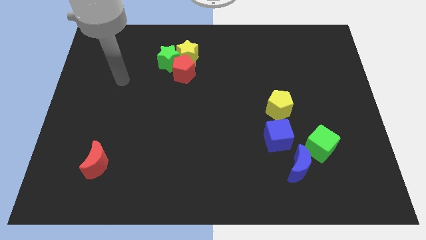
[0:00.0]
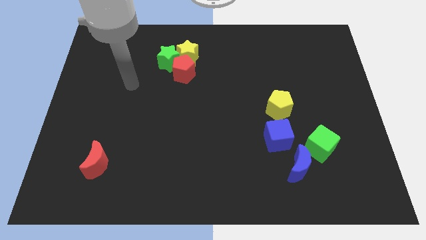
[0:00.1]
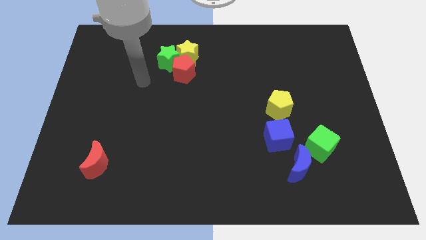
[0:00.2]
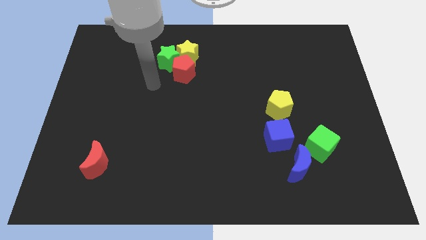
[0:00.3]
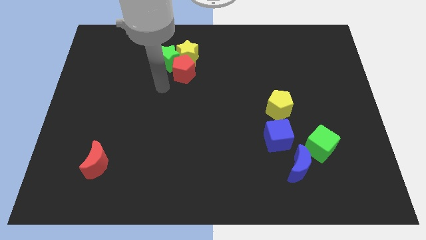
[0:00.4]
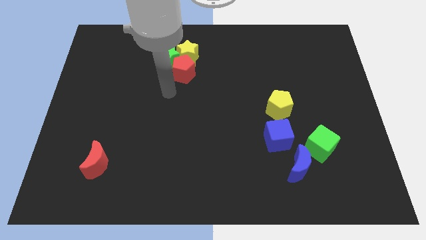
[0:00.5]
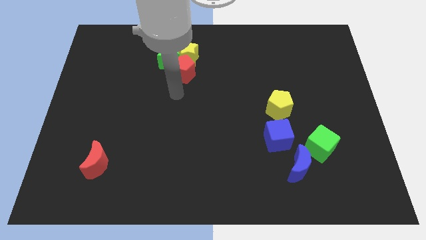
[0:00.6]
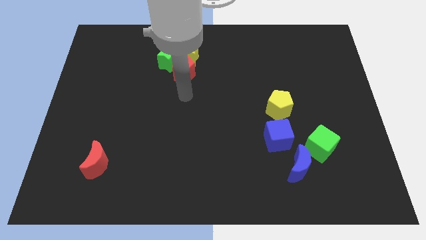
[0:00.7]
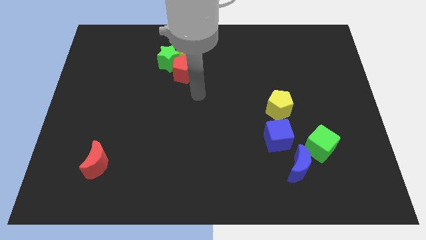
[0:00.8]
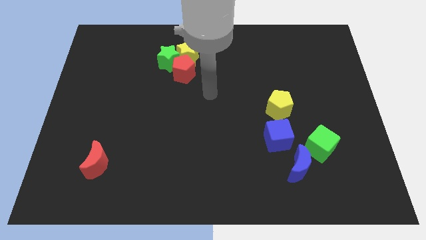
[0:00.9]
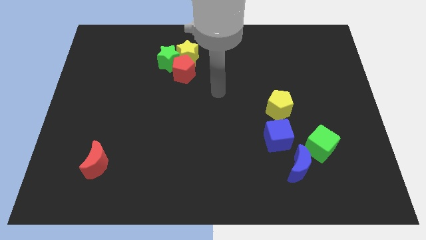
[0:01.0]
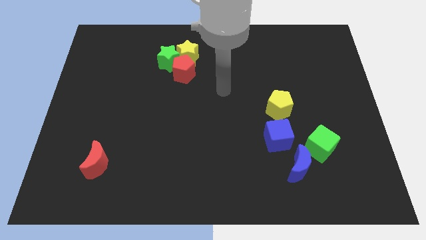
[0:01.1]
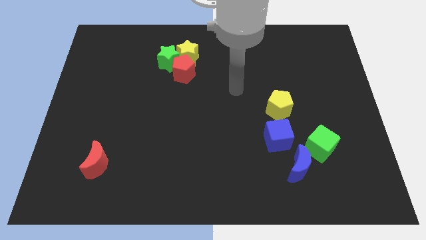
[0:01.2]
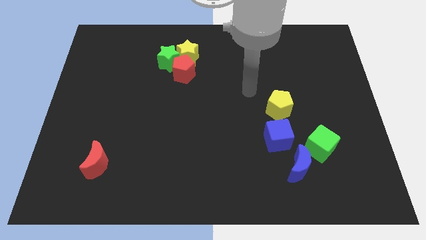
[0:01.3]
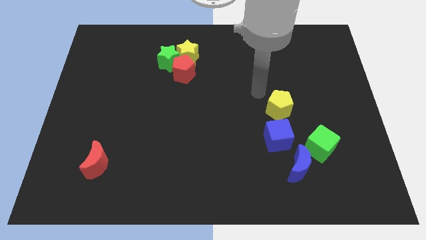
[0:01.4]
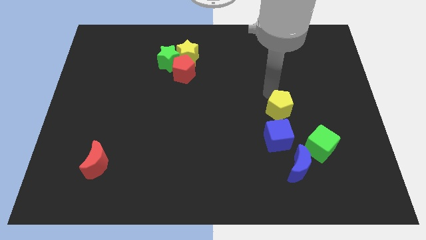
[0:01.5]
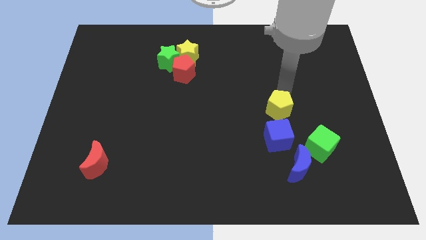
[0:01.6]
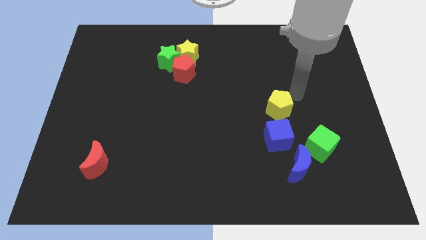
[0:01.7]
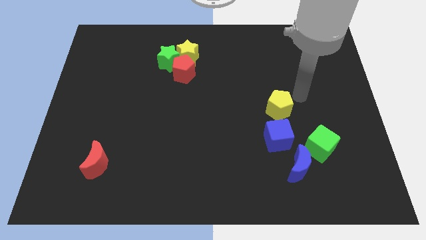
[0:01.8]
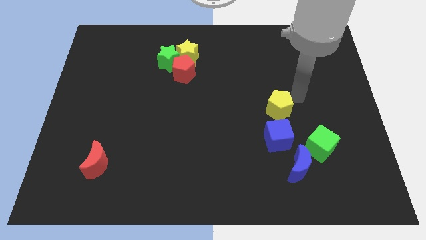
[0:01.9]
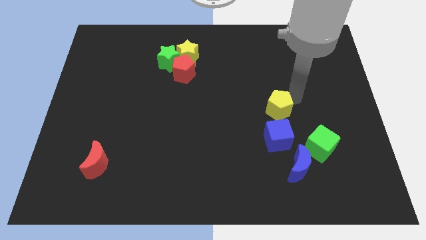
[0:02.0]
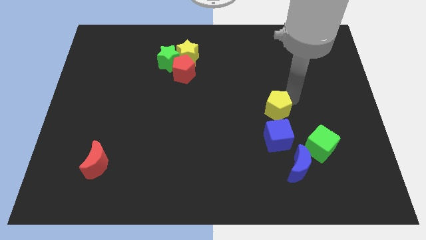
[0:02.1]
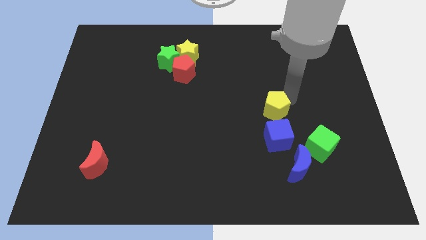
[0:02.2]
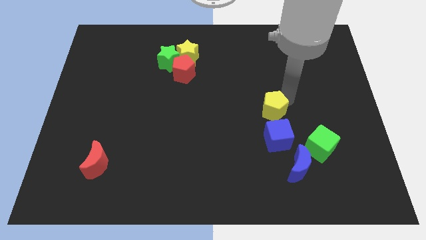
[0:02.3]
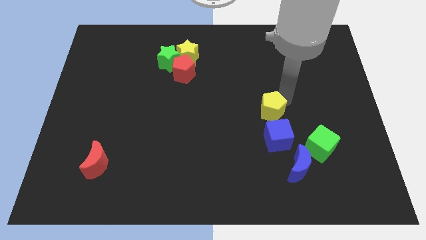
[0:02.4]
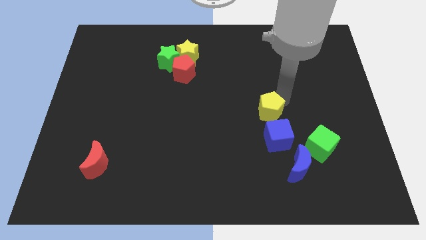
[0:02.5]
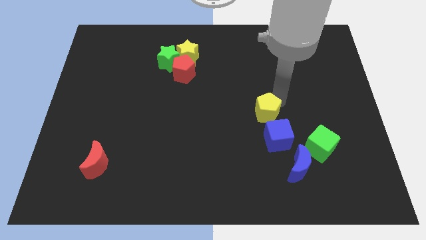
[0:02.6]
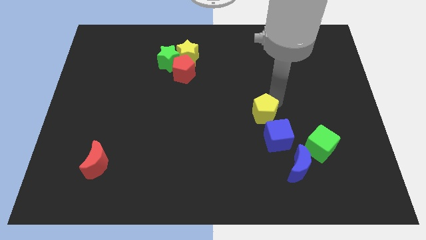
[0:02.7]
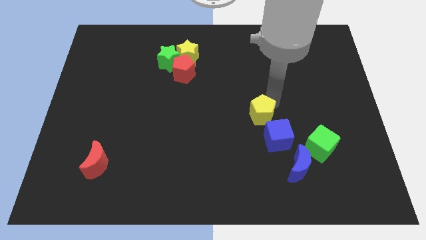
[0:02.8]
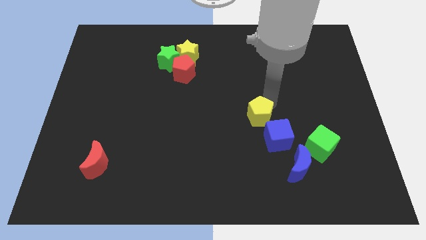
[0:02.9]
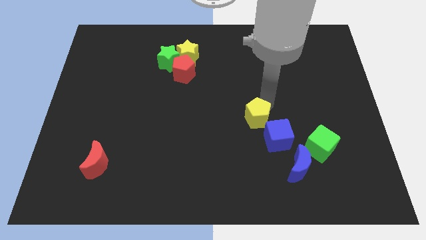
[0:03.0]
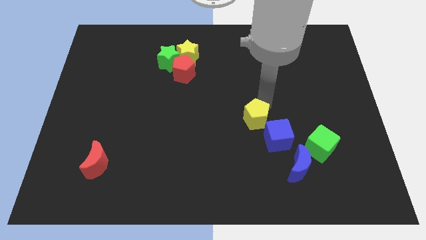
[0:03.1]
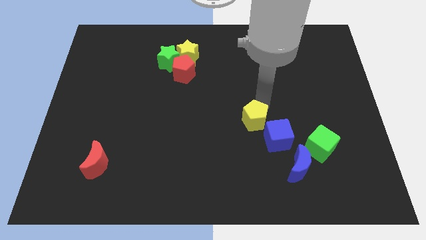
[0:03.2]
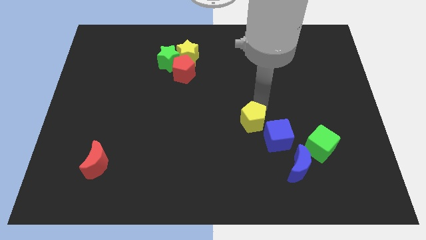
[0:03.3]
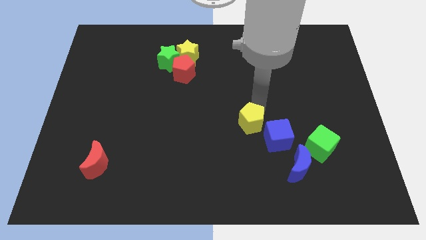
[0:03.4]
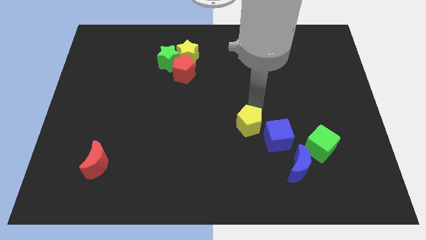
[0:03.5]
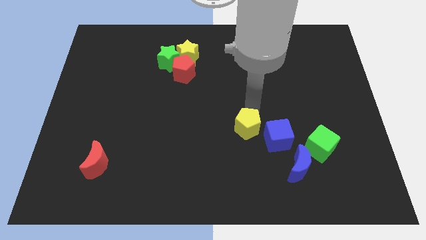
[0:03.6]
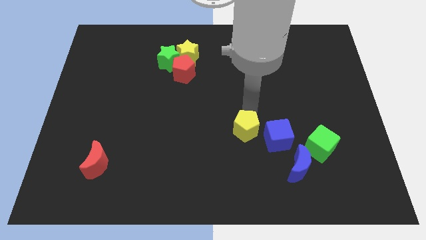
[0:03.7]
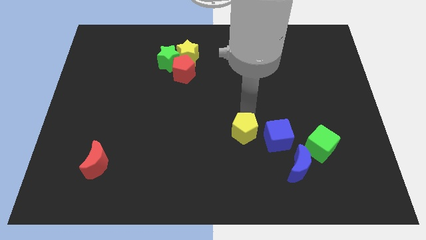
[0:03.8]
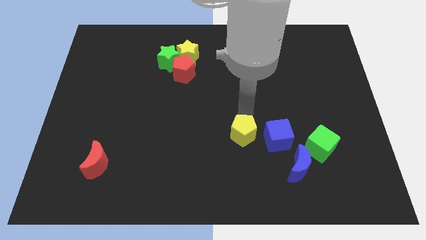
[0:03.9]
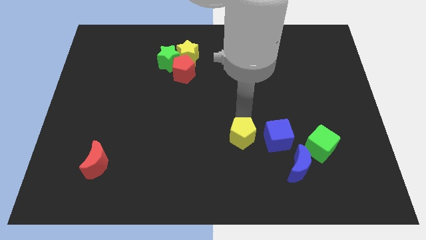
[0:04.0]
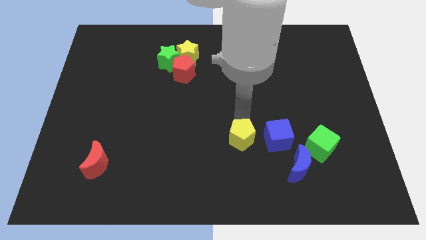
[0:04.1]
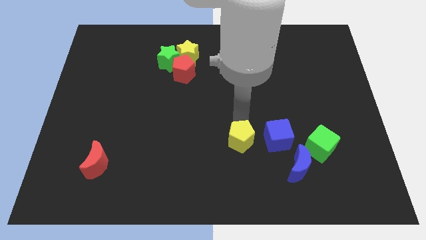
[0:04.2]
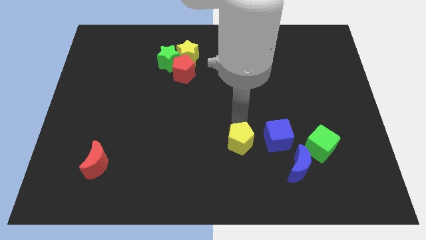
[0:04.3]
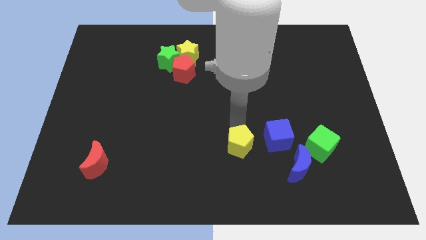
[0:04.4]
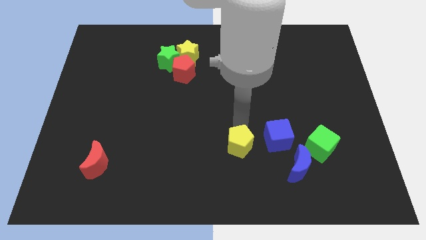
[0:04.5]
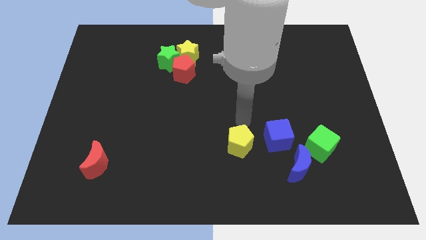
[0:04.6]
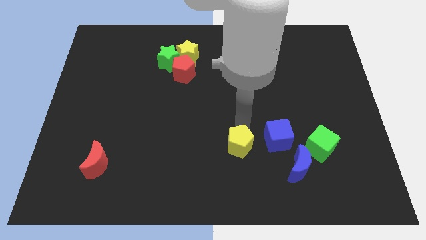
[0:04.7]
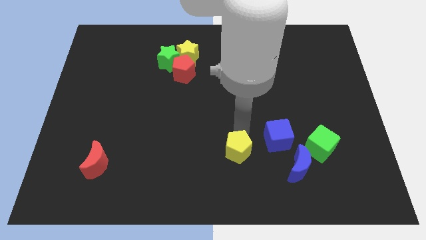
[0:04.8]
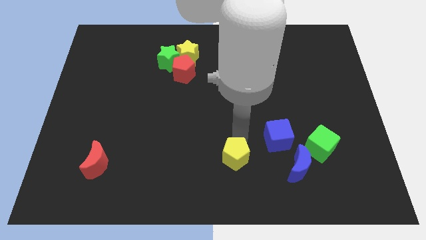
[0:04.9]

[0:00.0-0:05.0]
move the yellow pentagon to the bottom

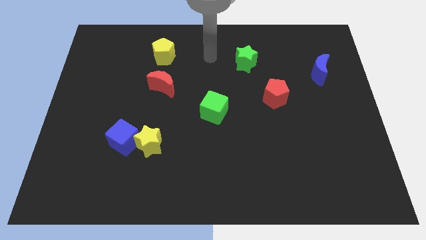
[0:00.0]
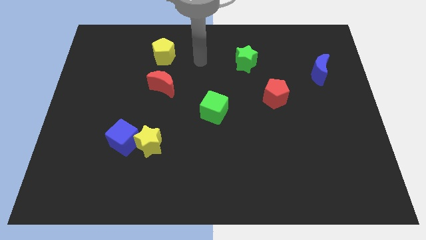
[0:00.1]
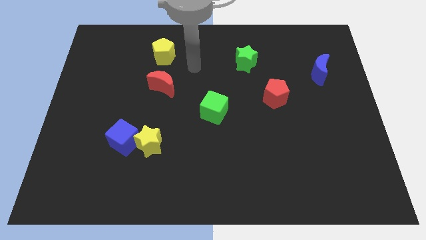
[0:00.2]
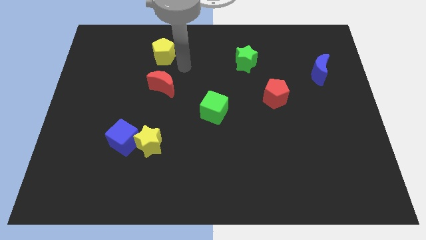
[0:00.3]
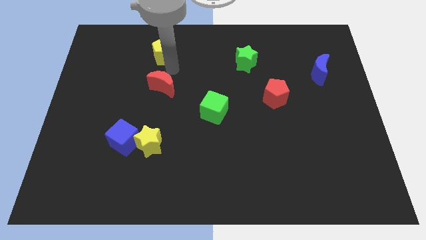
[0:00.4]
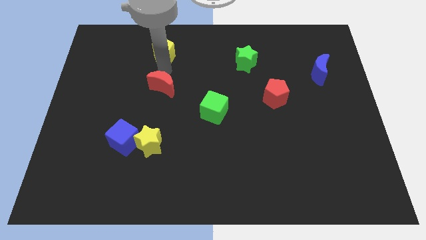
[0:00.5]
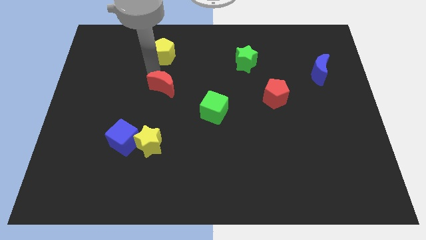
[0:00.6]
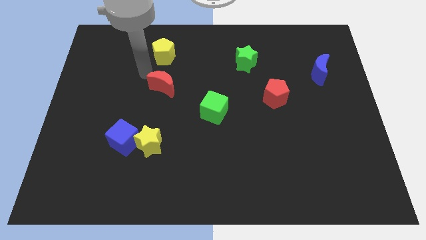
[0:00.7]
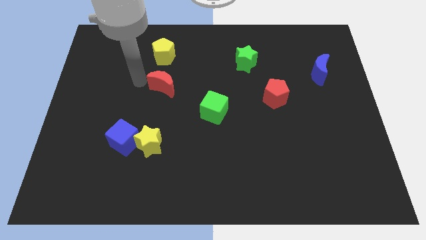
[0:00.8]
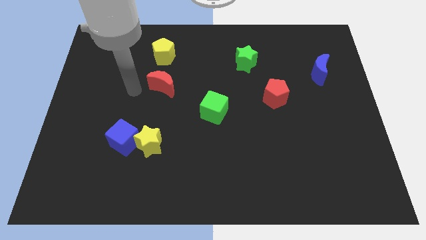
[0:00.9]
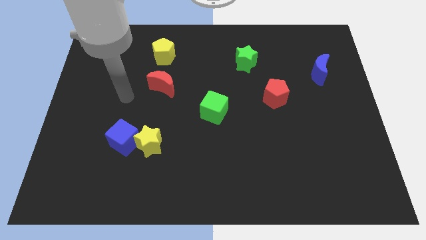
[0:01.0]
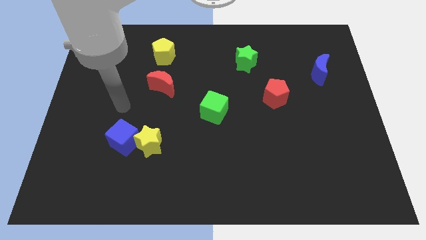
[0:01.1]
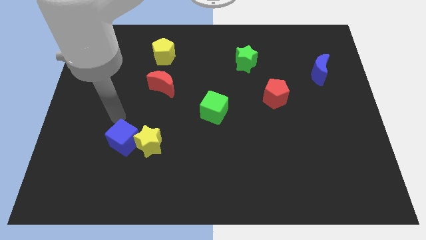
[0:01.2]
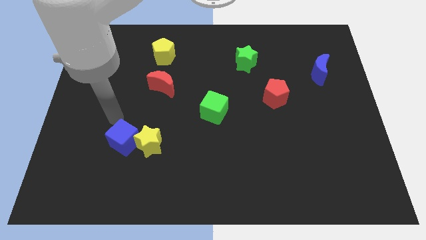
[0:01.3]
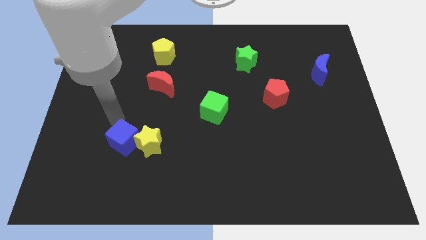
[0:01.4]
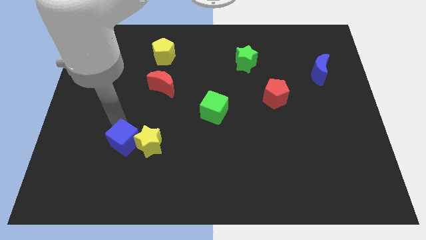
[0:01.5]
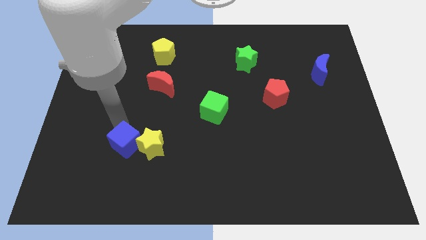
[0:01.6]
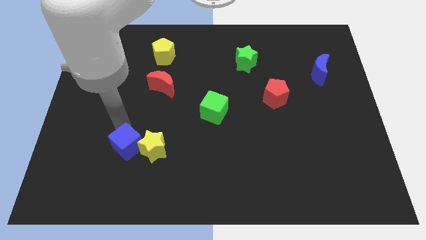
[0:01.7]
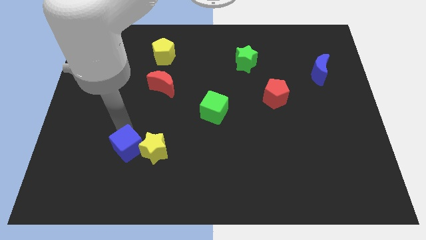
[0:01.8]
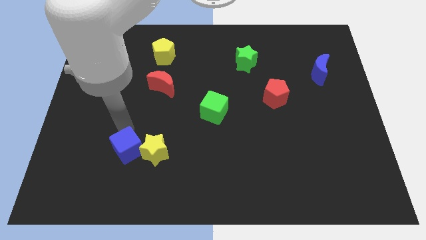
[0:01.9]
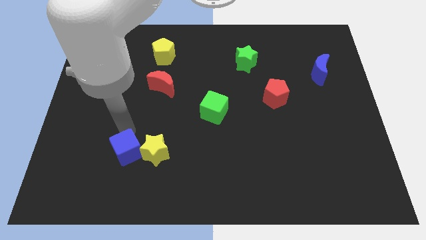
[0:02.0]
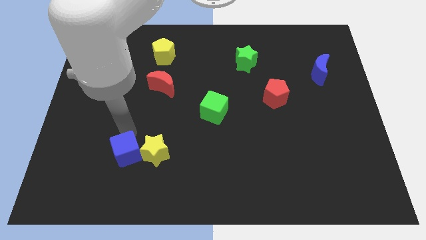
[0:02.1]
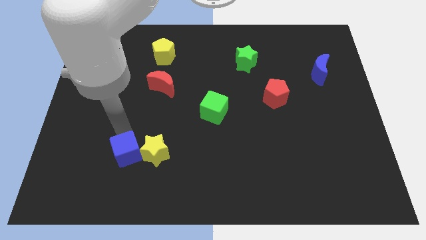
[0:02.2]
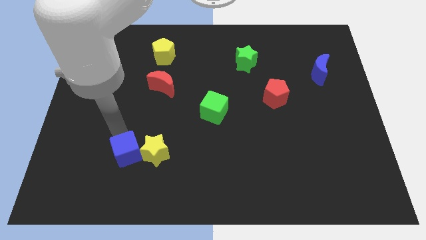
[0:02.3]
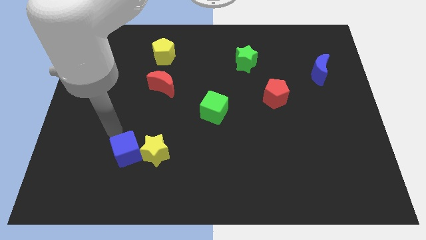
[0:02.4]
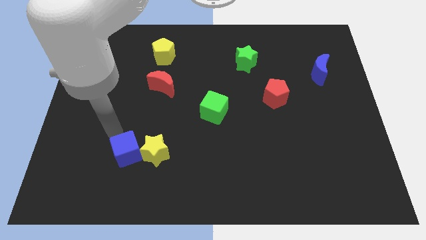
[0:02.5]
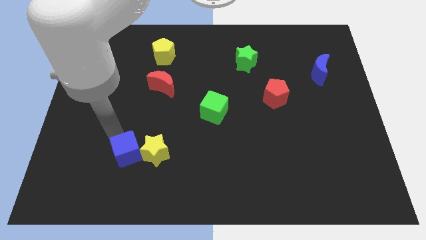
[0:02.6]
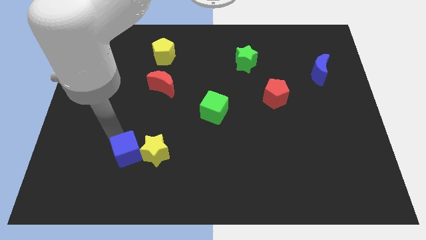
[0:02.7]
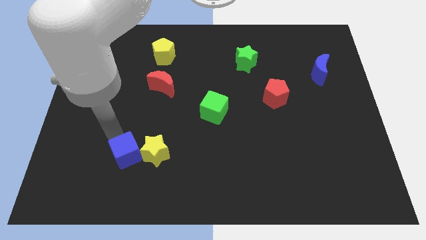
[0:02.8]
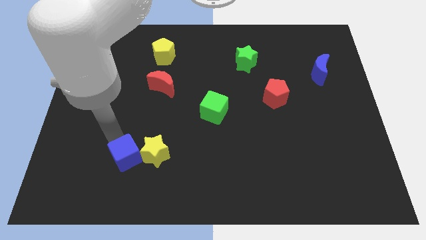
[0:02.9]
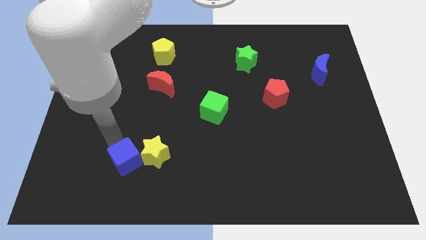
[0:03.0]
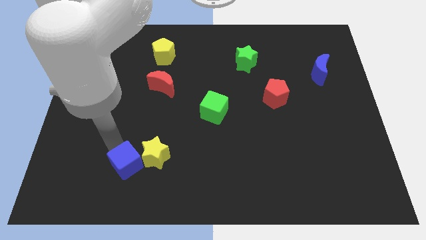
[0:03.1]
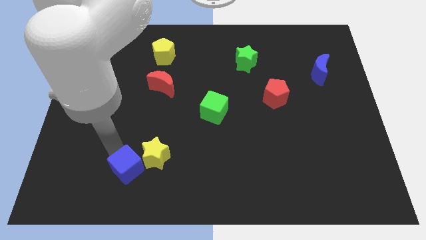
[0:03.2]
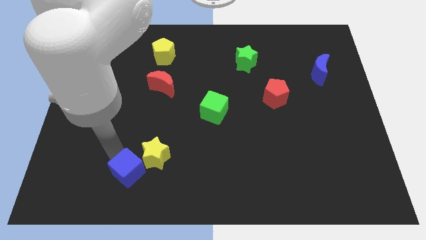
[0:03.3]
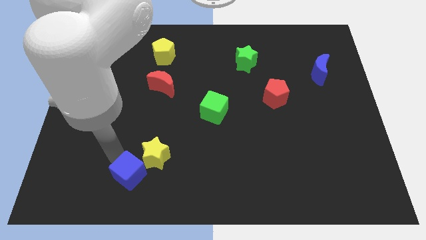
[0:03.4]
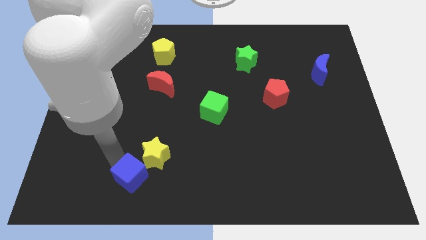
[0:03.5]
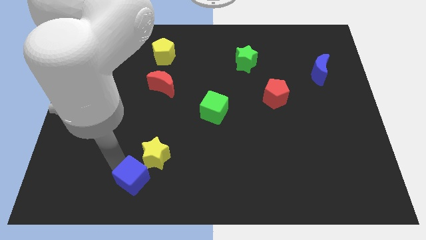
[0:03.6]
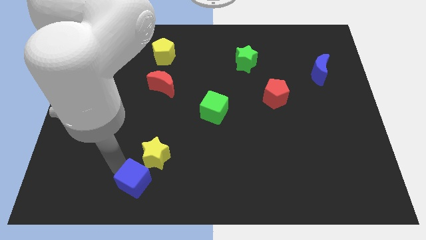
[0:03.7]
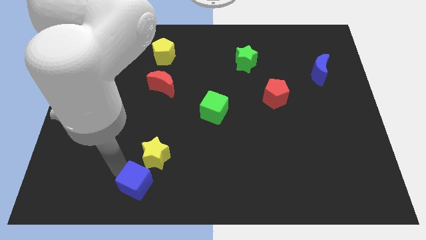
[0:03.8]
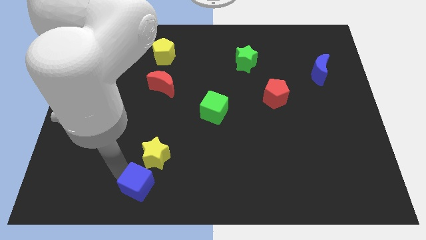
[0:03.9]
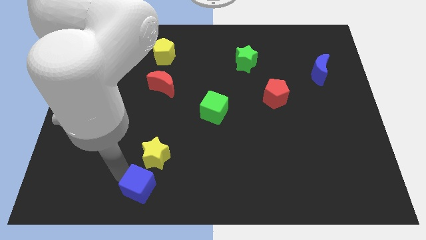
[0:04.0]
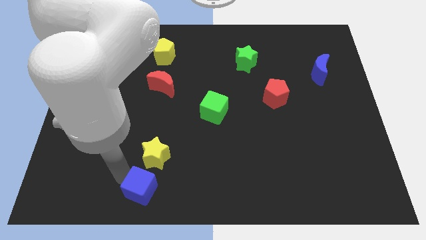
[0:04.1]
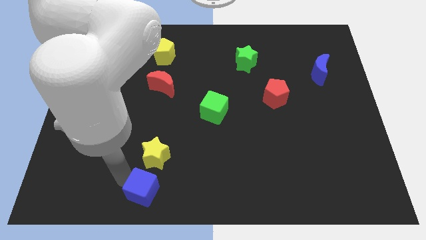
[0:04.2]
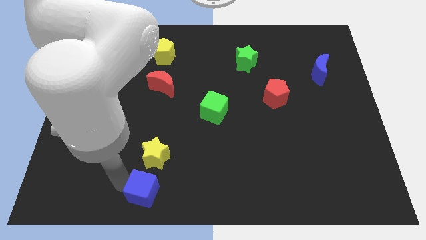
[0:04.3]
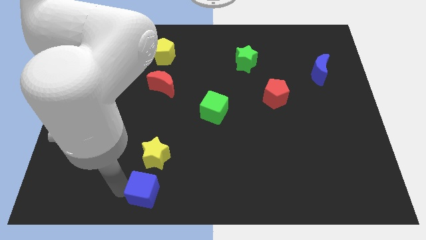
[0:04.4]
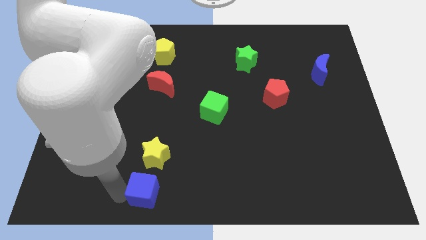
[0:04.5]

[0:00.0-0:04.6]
put the blue cube to the bottom
